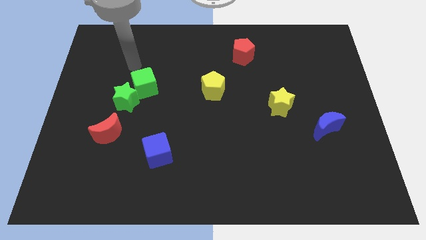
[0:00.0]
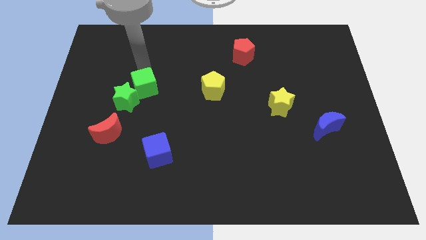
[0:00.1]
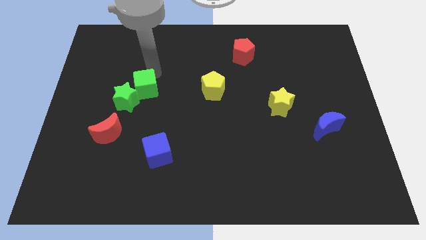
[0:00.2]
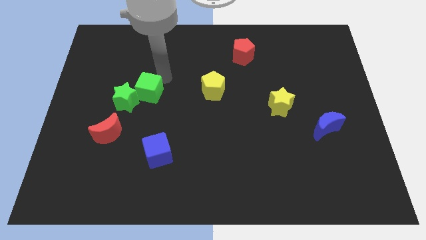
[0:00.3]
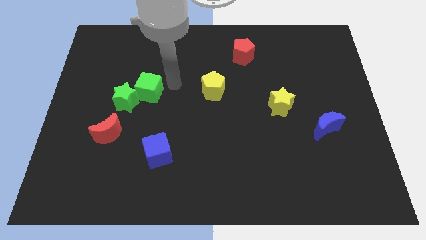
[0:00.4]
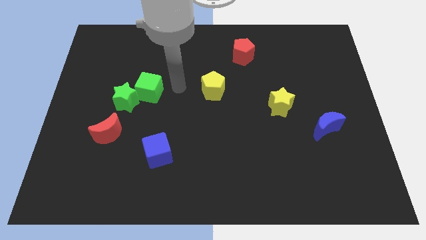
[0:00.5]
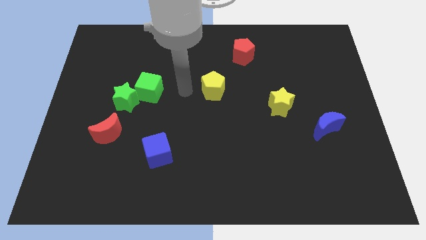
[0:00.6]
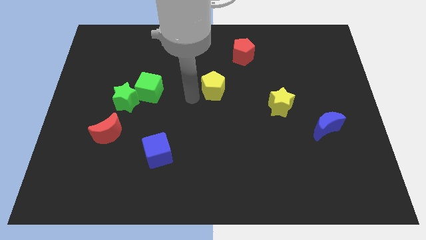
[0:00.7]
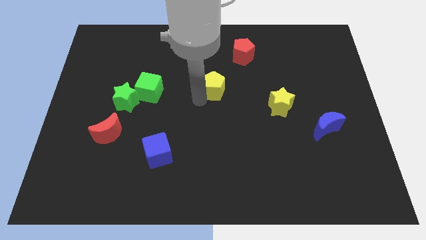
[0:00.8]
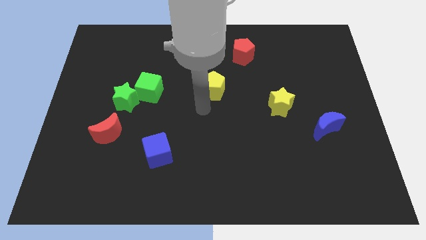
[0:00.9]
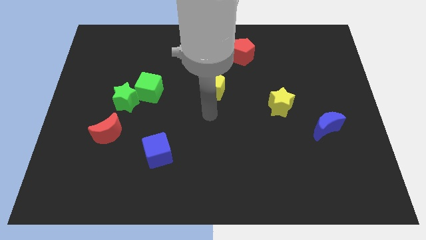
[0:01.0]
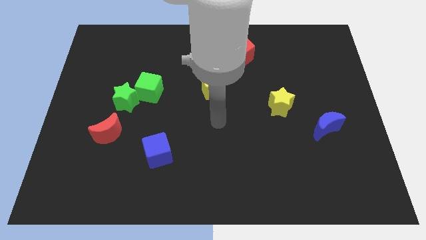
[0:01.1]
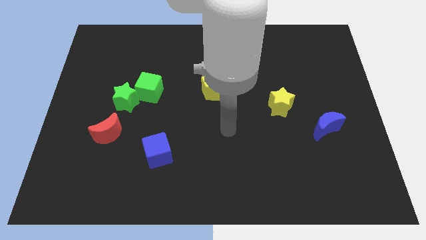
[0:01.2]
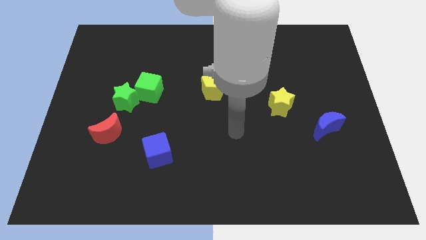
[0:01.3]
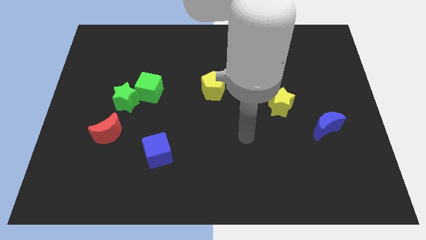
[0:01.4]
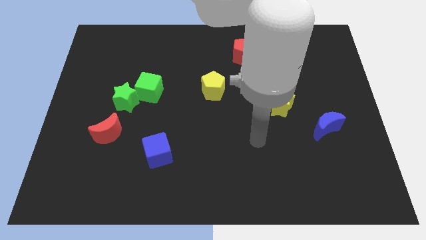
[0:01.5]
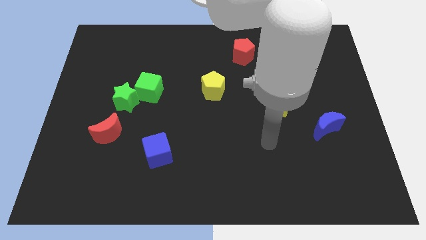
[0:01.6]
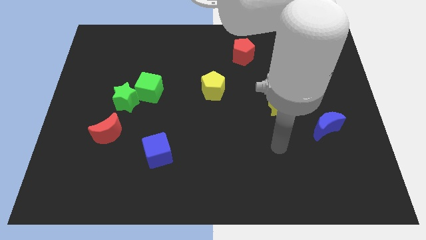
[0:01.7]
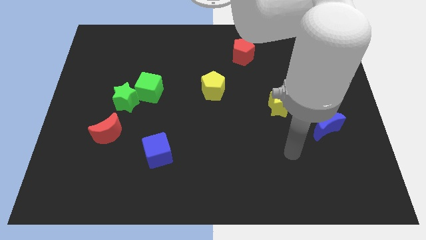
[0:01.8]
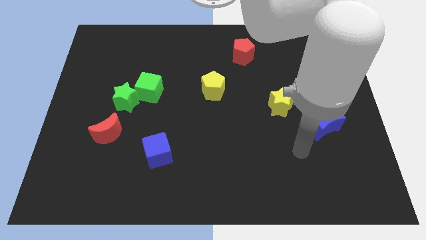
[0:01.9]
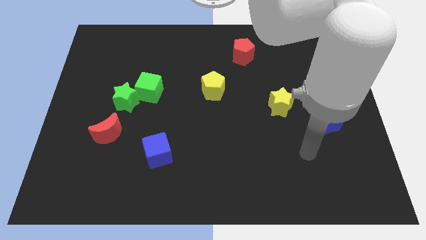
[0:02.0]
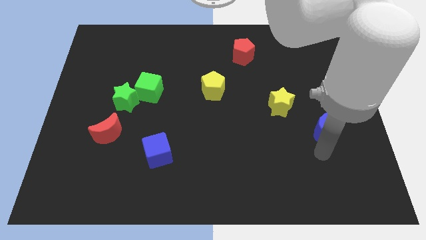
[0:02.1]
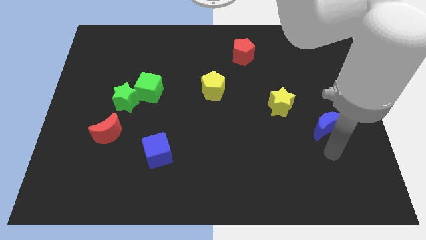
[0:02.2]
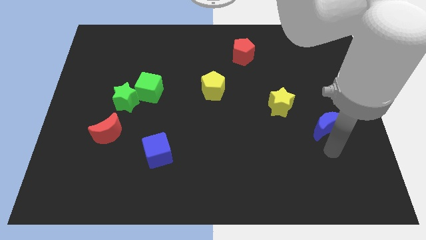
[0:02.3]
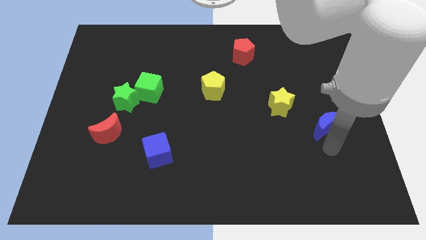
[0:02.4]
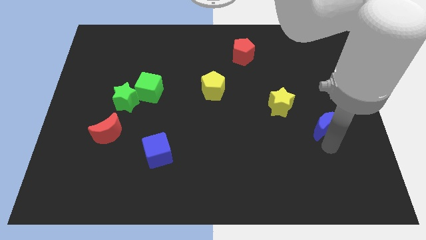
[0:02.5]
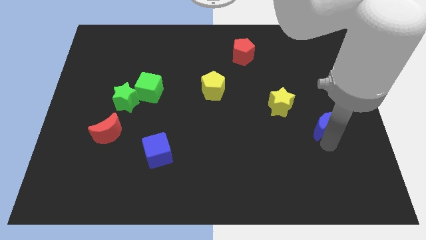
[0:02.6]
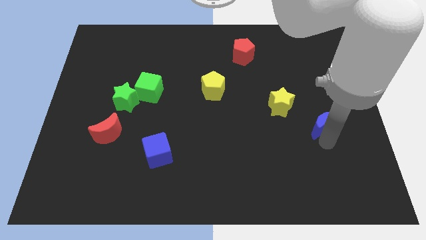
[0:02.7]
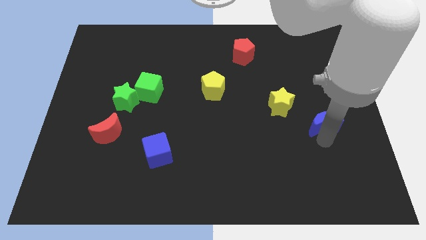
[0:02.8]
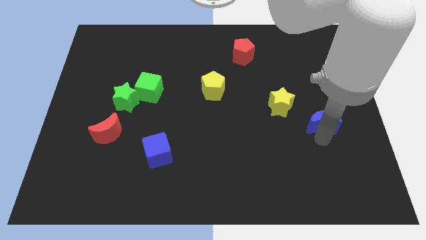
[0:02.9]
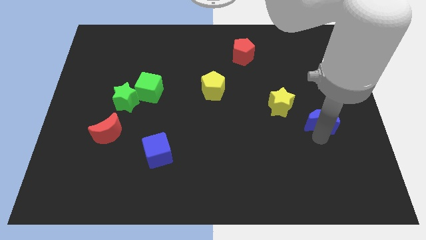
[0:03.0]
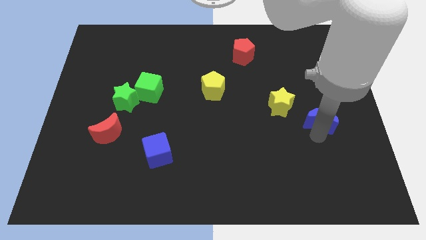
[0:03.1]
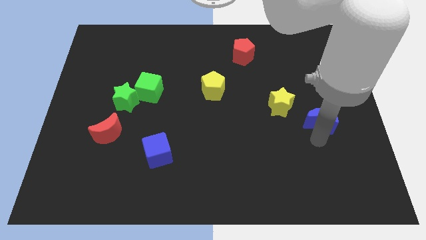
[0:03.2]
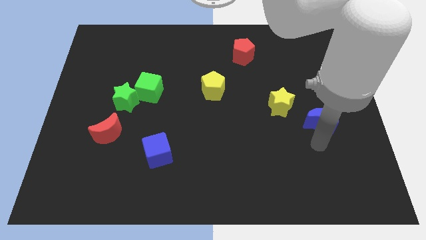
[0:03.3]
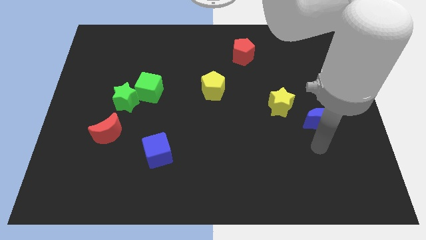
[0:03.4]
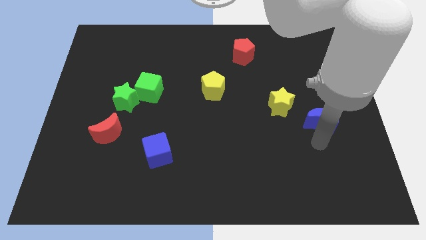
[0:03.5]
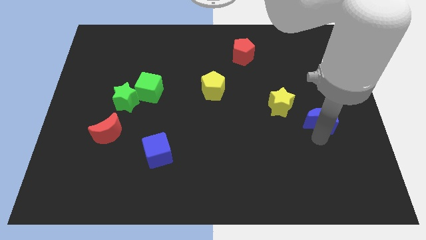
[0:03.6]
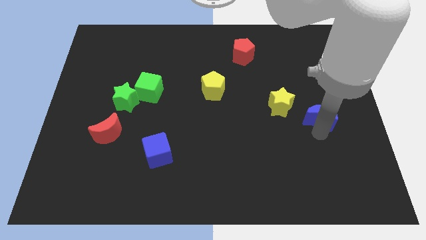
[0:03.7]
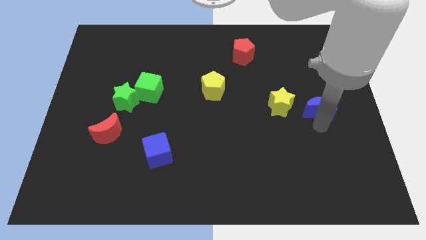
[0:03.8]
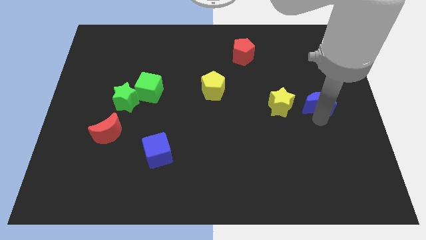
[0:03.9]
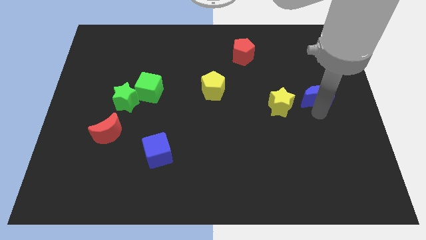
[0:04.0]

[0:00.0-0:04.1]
move the blue moon up a little bit

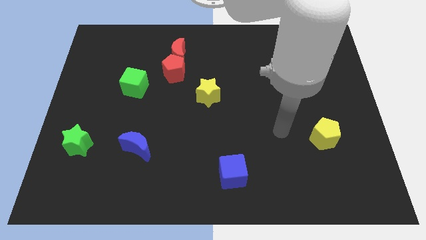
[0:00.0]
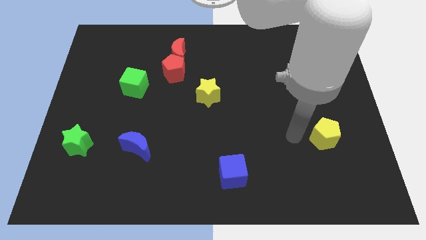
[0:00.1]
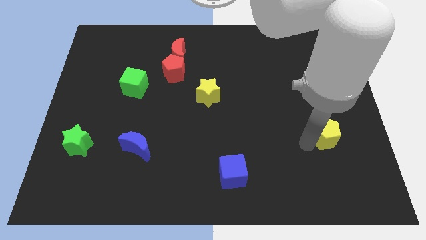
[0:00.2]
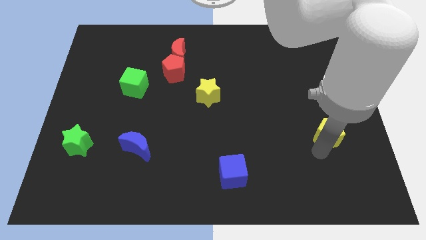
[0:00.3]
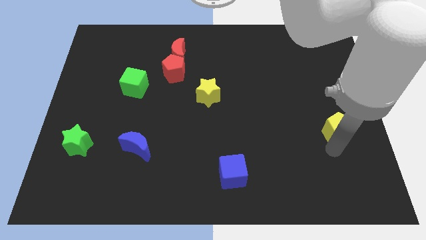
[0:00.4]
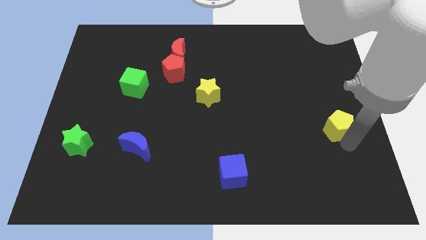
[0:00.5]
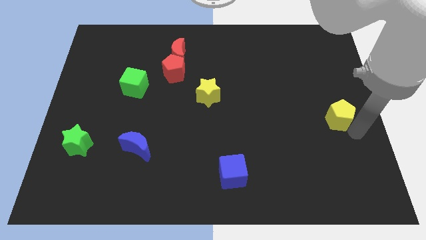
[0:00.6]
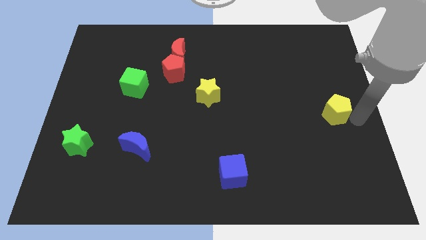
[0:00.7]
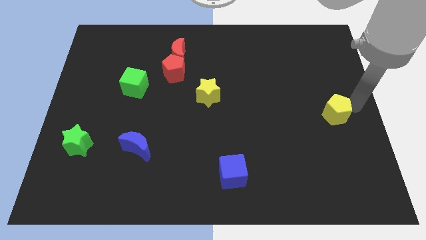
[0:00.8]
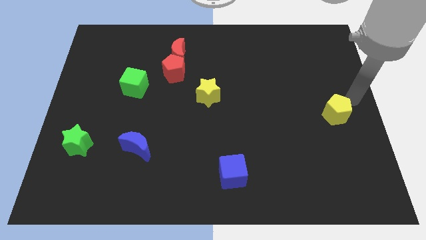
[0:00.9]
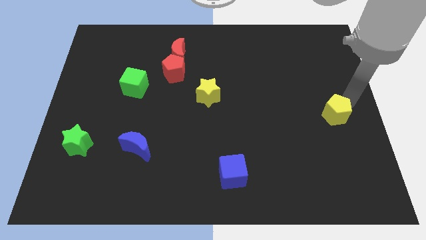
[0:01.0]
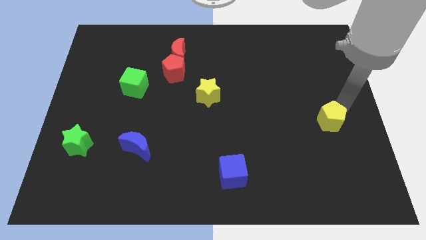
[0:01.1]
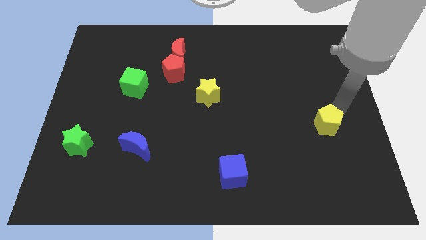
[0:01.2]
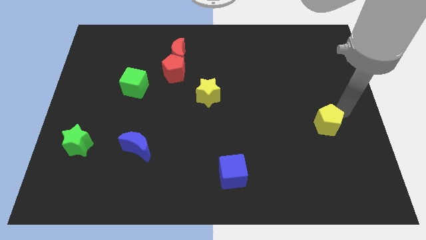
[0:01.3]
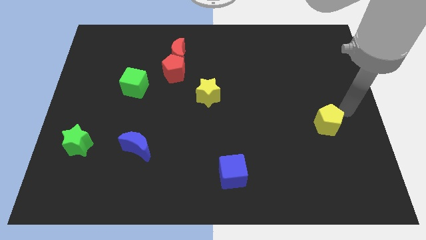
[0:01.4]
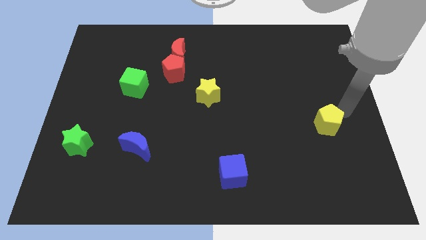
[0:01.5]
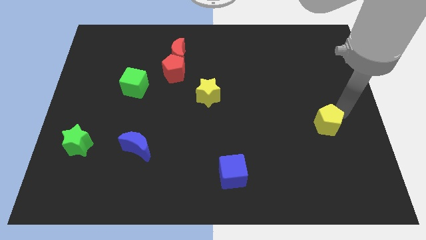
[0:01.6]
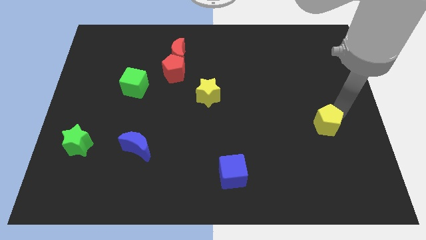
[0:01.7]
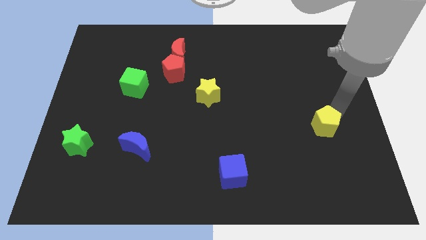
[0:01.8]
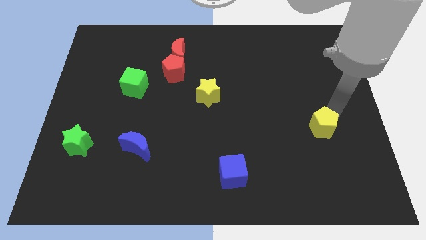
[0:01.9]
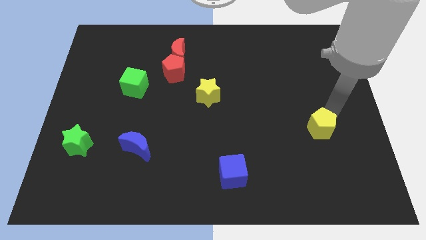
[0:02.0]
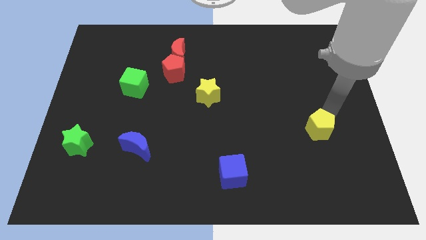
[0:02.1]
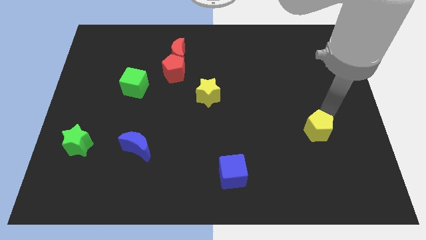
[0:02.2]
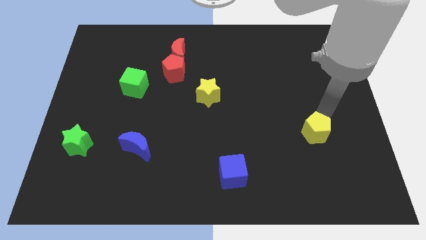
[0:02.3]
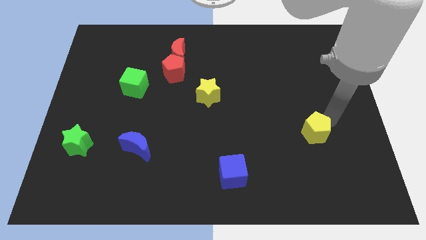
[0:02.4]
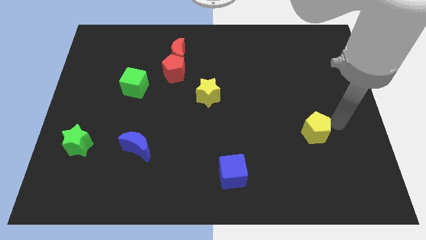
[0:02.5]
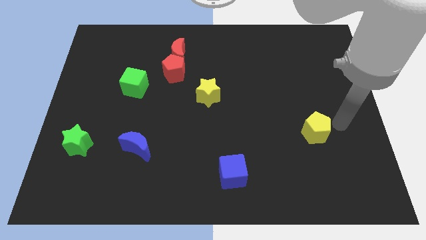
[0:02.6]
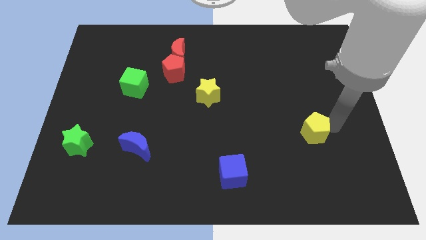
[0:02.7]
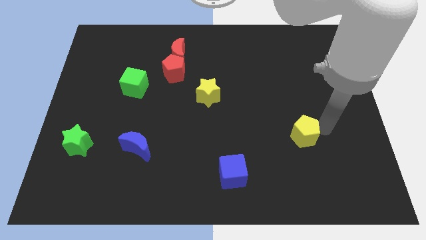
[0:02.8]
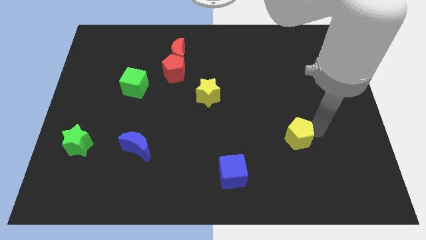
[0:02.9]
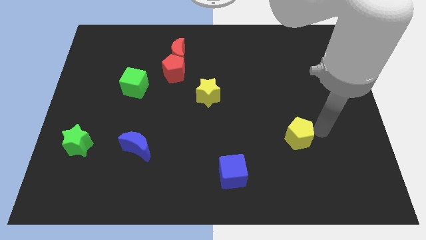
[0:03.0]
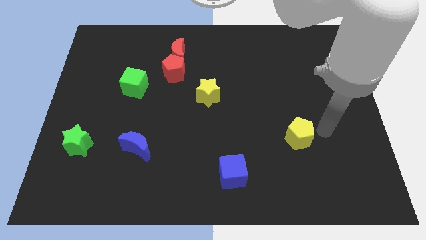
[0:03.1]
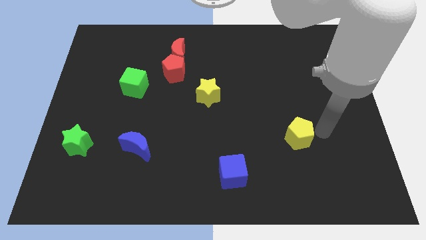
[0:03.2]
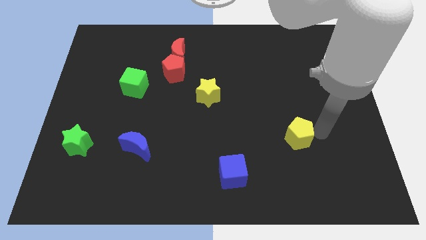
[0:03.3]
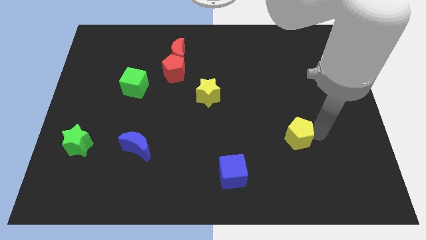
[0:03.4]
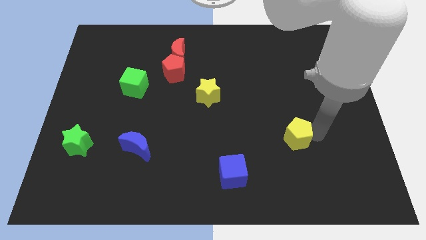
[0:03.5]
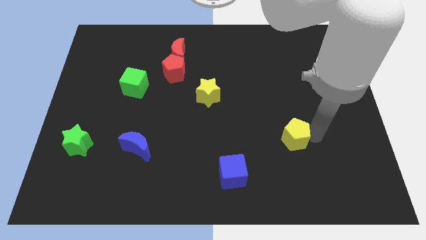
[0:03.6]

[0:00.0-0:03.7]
move the yellow pentagon a little to the left

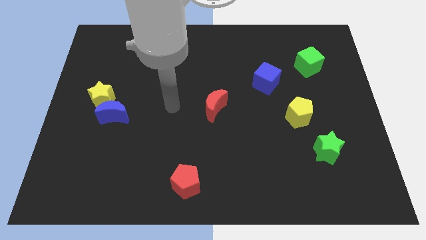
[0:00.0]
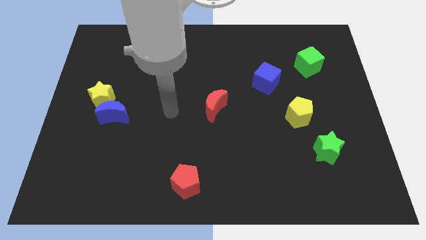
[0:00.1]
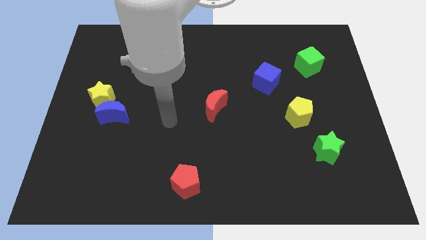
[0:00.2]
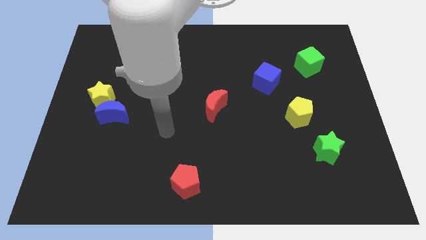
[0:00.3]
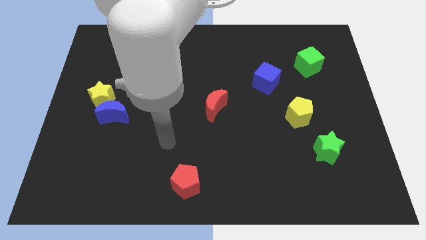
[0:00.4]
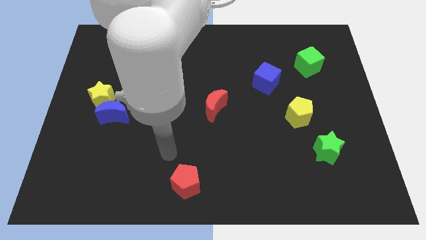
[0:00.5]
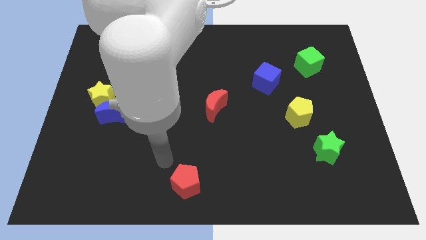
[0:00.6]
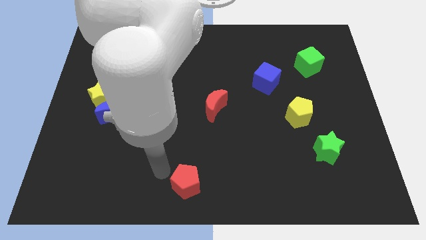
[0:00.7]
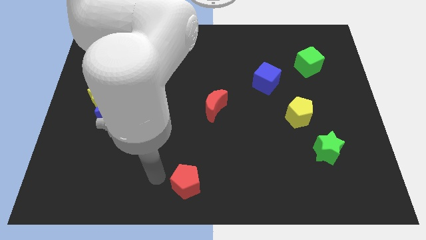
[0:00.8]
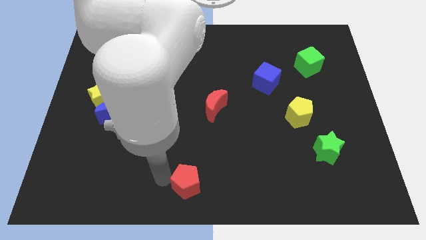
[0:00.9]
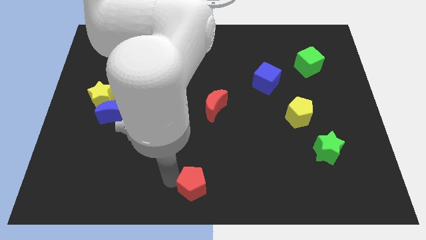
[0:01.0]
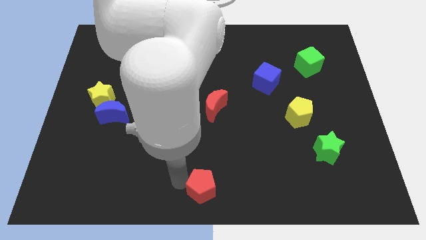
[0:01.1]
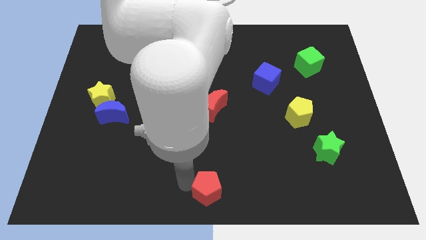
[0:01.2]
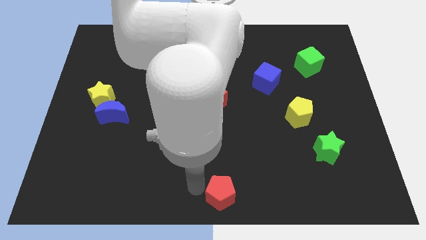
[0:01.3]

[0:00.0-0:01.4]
push the red pentagon right somewhat
